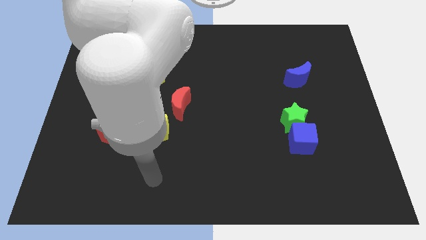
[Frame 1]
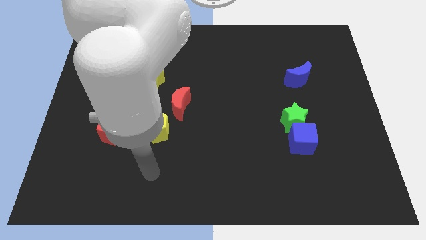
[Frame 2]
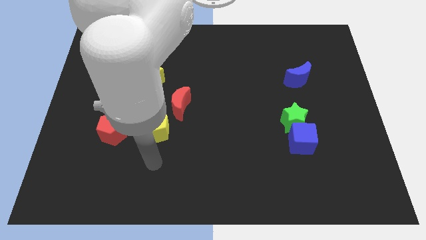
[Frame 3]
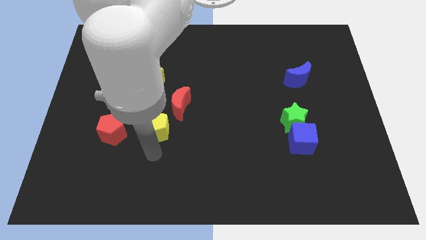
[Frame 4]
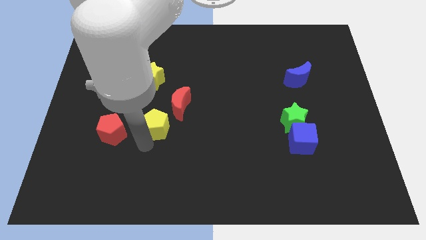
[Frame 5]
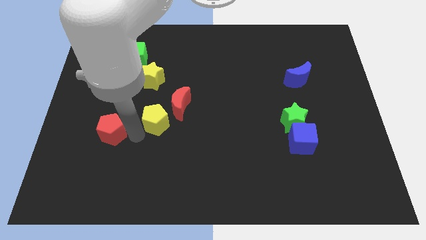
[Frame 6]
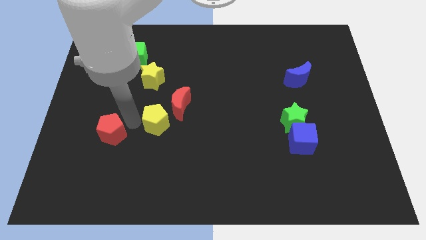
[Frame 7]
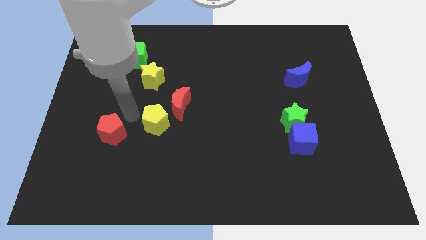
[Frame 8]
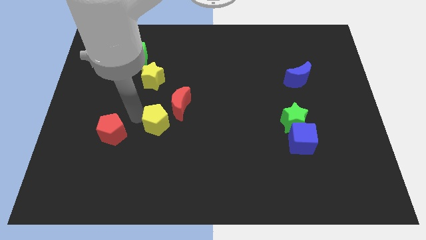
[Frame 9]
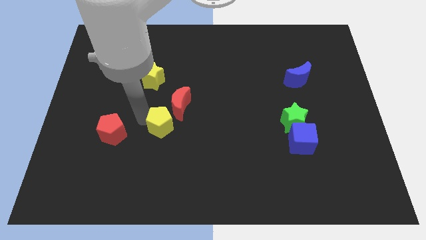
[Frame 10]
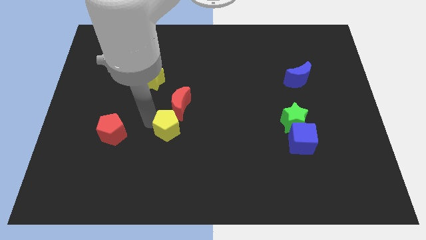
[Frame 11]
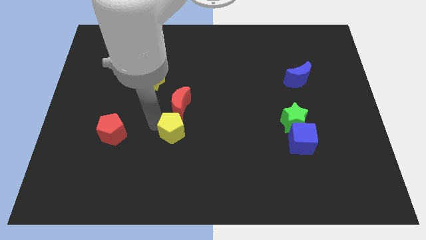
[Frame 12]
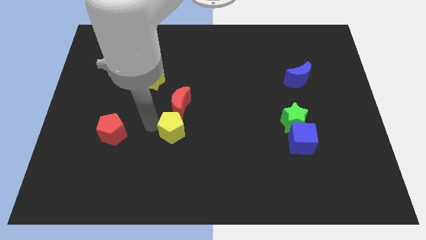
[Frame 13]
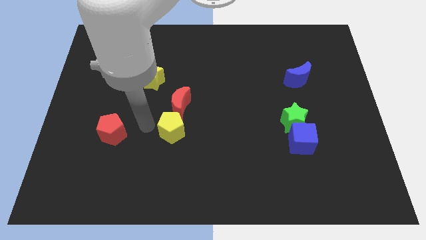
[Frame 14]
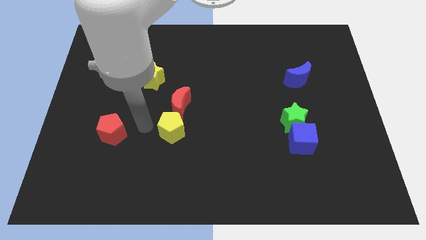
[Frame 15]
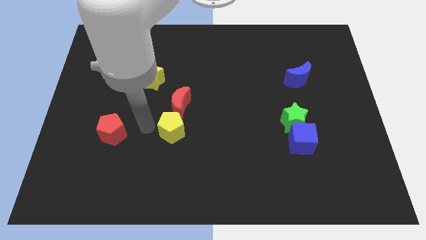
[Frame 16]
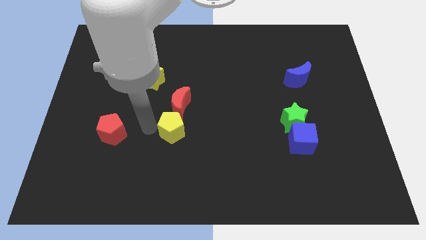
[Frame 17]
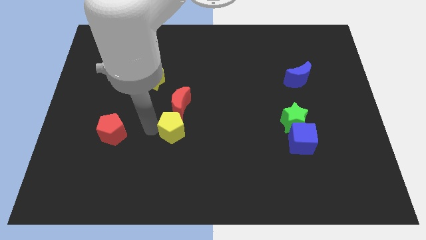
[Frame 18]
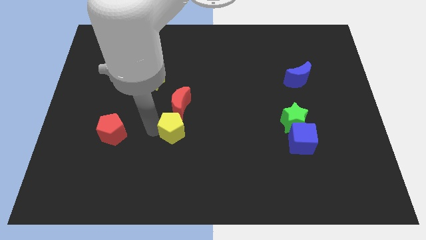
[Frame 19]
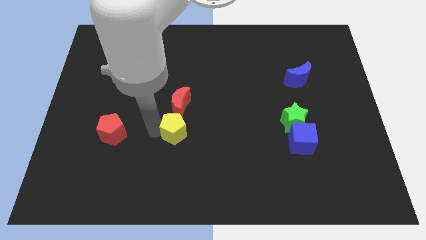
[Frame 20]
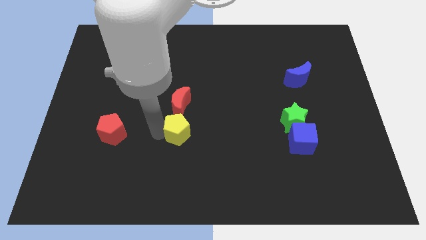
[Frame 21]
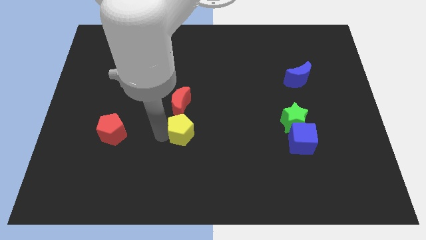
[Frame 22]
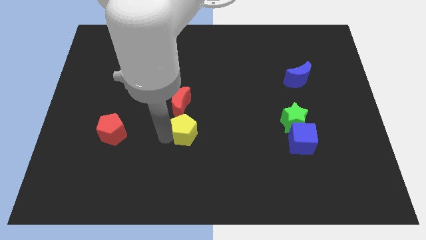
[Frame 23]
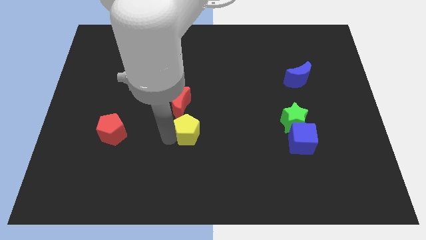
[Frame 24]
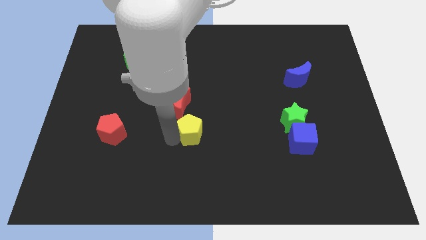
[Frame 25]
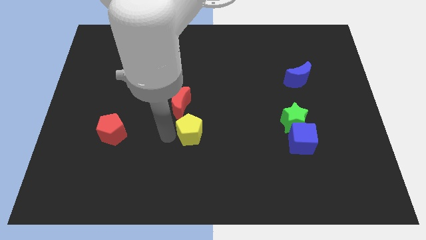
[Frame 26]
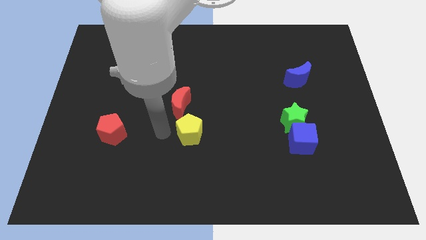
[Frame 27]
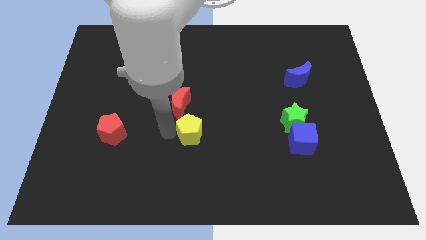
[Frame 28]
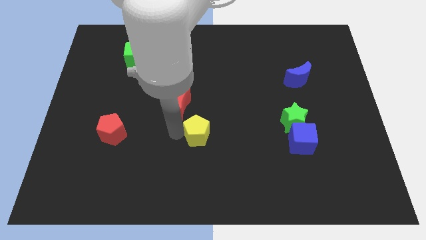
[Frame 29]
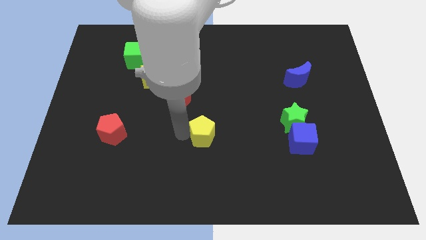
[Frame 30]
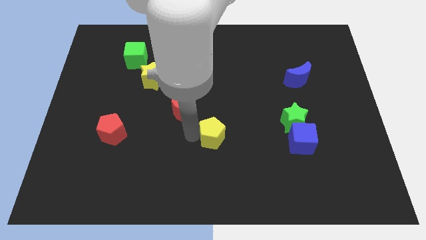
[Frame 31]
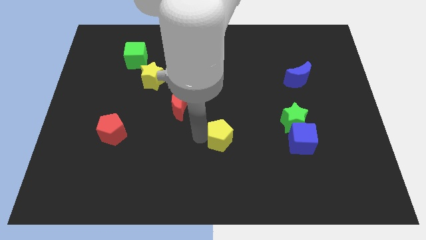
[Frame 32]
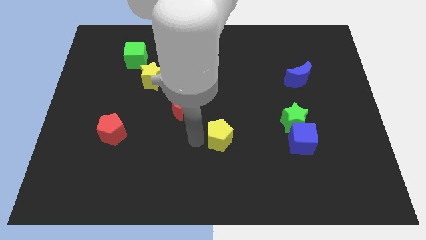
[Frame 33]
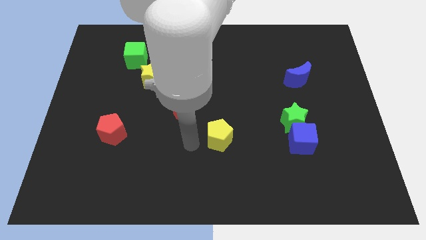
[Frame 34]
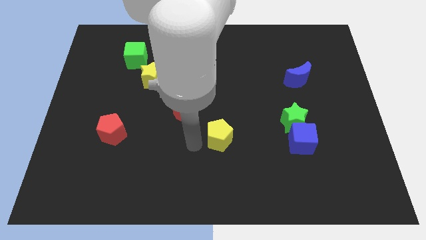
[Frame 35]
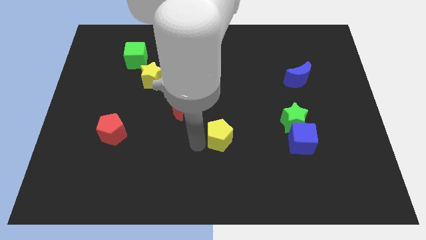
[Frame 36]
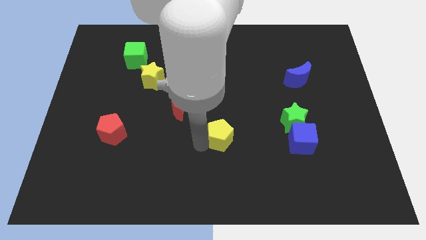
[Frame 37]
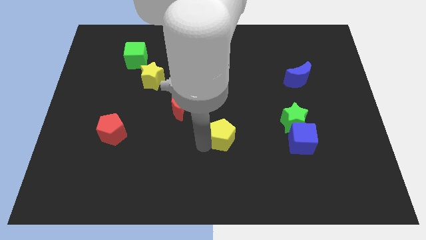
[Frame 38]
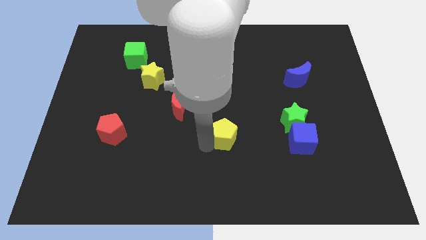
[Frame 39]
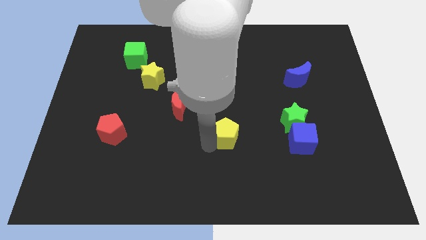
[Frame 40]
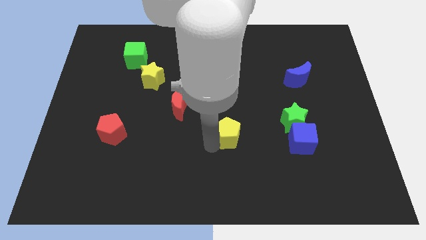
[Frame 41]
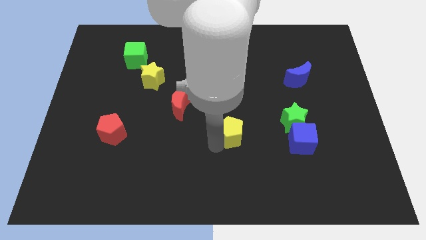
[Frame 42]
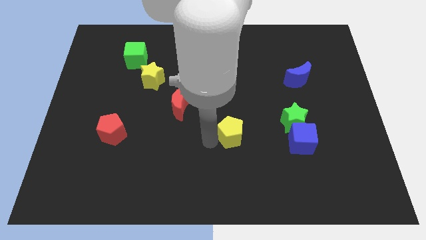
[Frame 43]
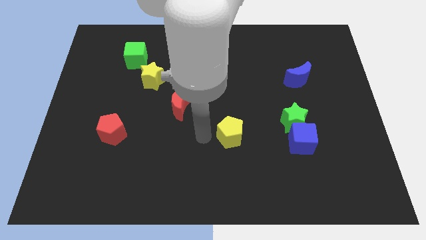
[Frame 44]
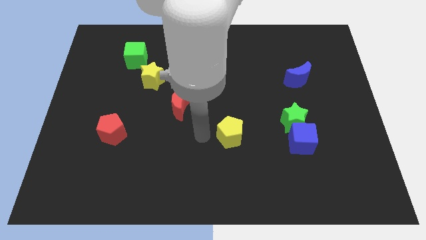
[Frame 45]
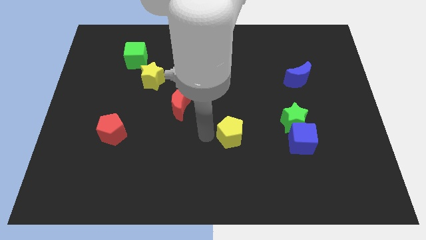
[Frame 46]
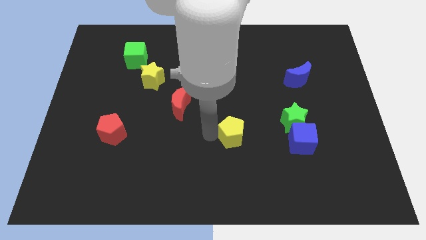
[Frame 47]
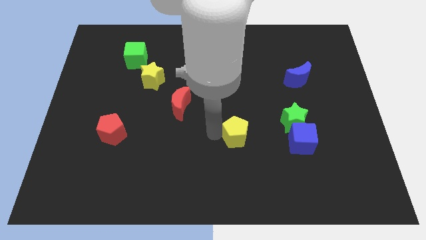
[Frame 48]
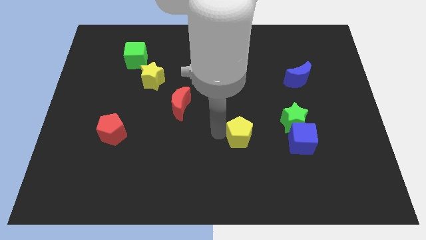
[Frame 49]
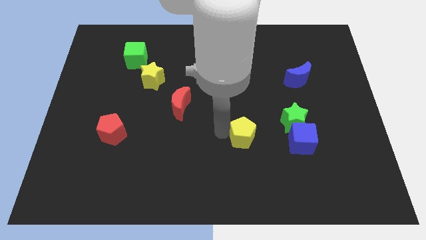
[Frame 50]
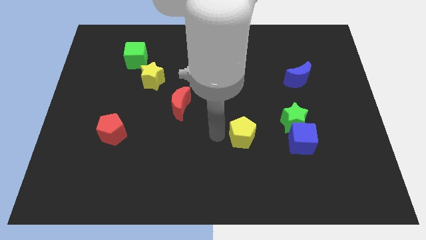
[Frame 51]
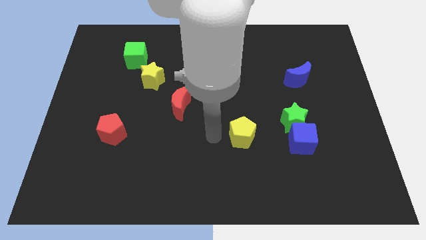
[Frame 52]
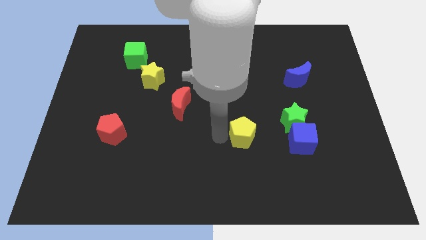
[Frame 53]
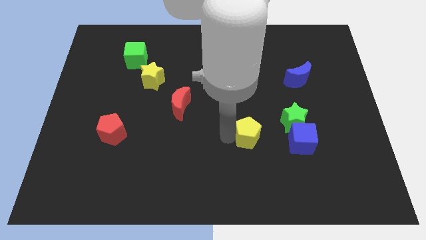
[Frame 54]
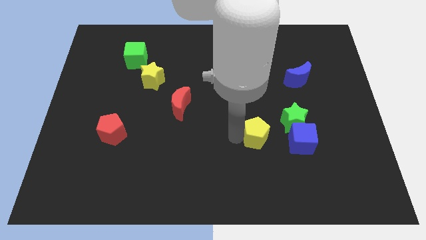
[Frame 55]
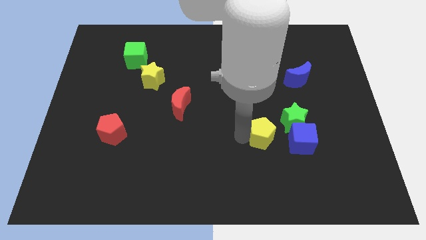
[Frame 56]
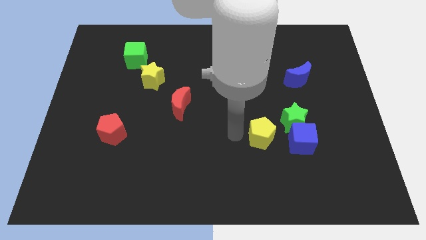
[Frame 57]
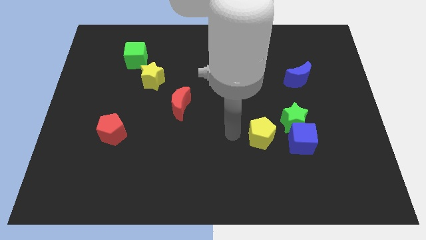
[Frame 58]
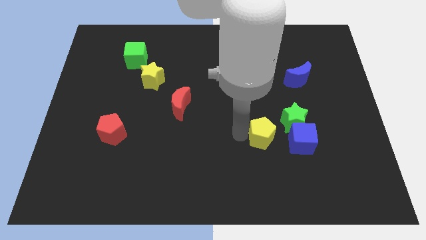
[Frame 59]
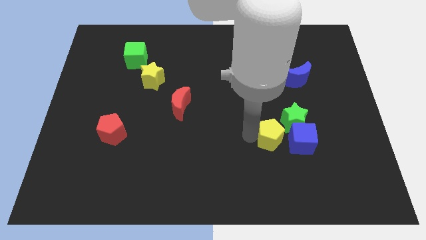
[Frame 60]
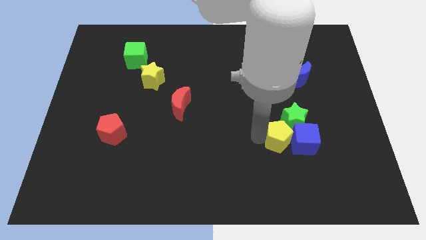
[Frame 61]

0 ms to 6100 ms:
slide the yellow pentagon to the blue cube

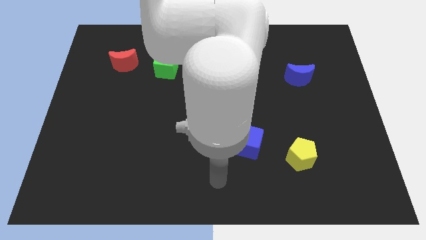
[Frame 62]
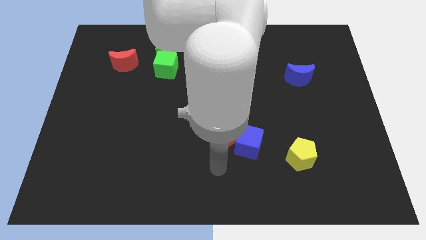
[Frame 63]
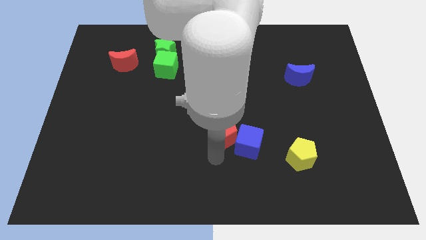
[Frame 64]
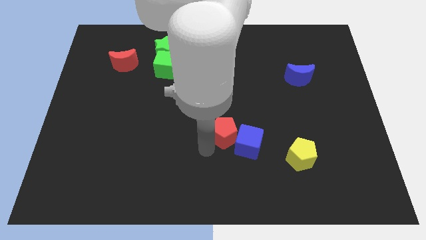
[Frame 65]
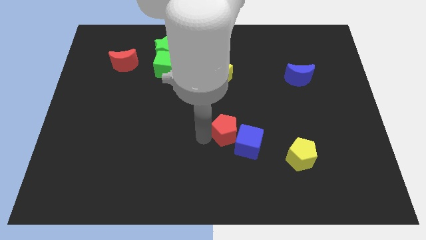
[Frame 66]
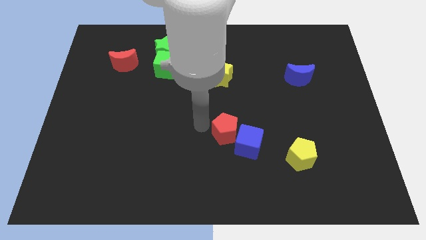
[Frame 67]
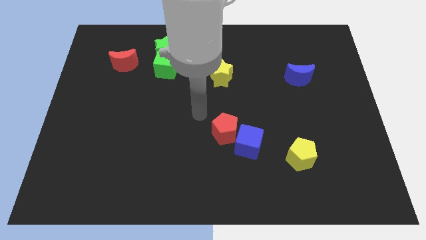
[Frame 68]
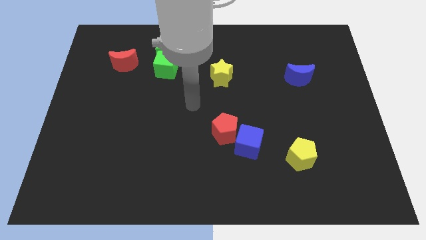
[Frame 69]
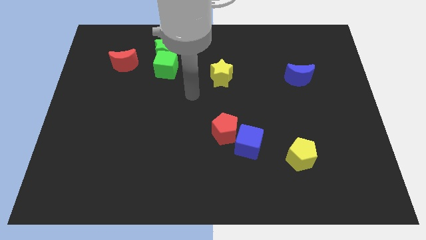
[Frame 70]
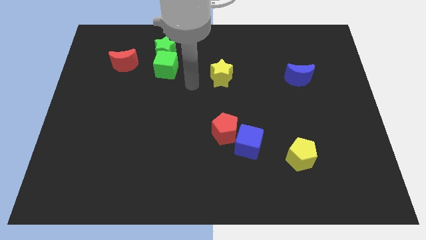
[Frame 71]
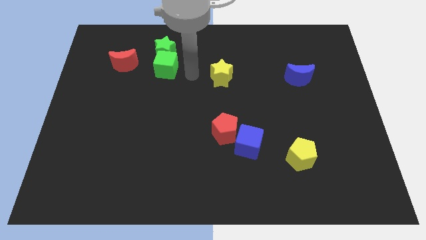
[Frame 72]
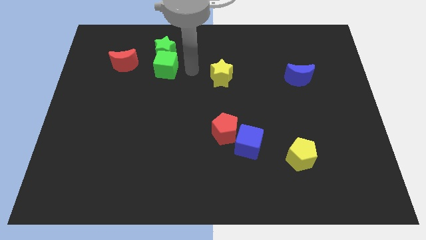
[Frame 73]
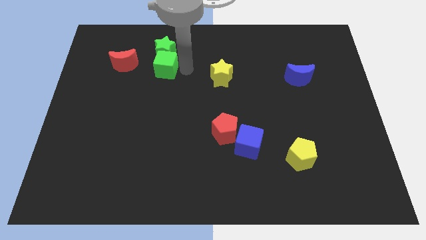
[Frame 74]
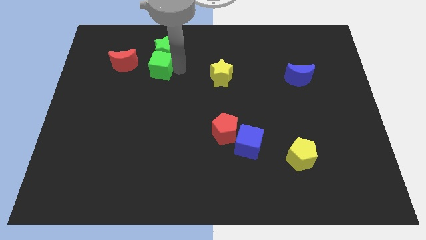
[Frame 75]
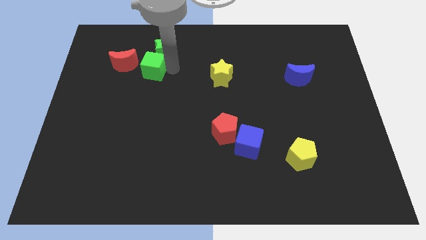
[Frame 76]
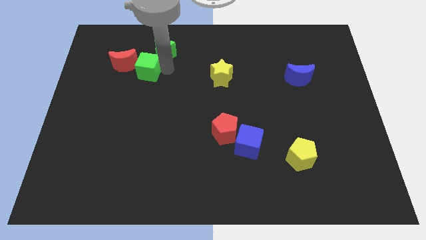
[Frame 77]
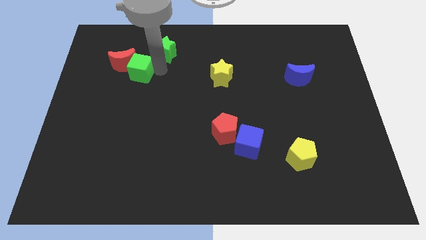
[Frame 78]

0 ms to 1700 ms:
push the green cube next to the red moon
